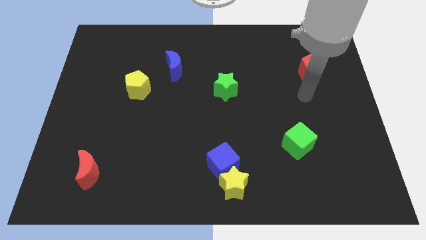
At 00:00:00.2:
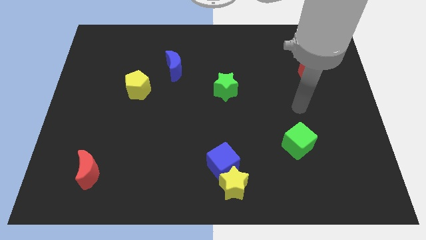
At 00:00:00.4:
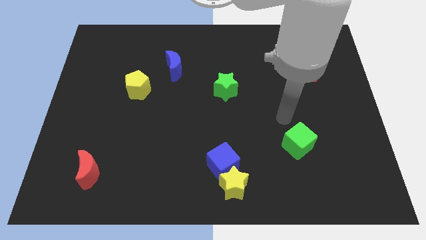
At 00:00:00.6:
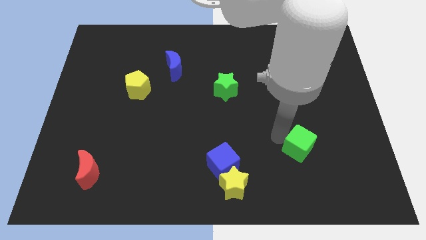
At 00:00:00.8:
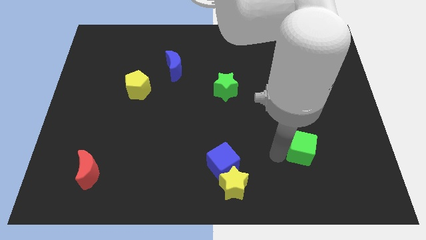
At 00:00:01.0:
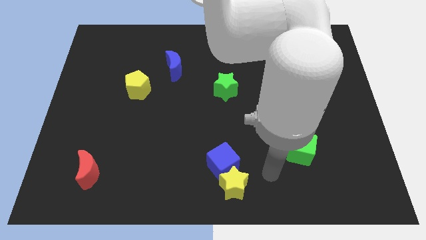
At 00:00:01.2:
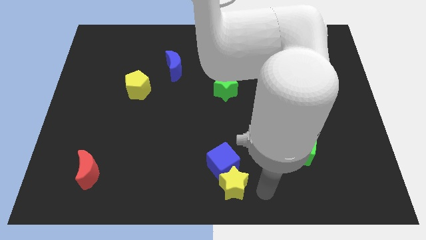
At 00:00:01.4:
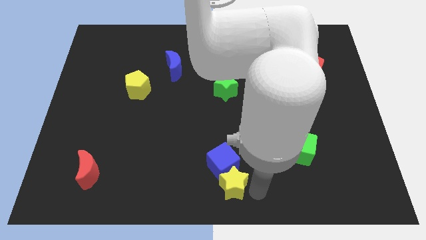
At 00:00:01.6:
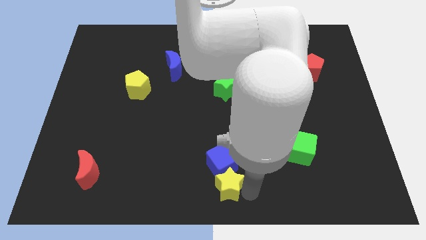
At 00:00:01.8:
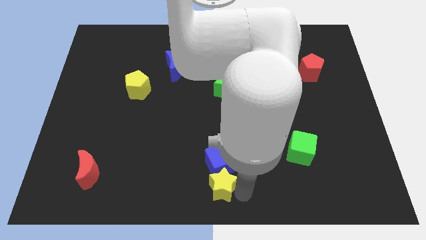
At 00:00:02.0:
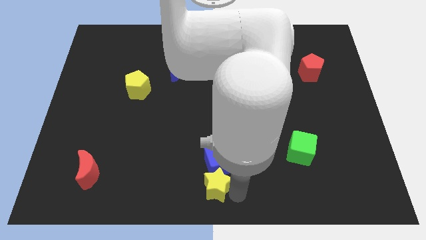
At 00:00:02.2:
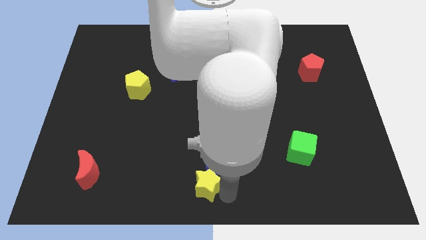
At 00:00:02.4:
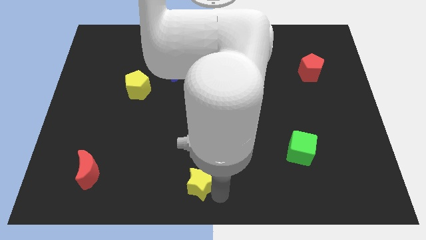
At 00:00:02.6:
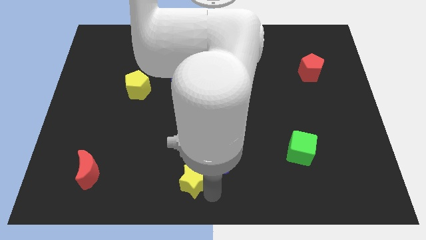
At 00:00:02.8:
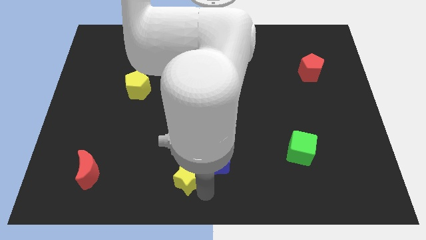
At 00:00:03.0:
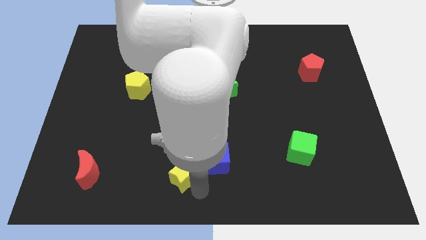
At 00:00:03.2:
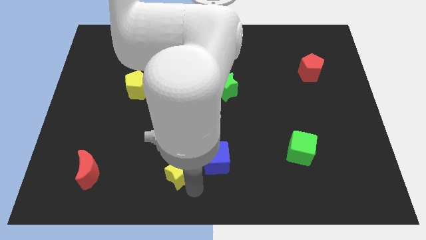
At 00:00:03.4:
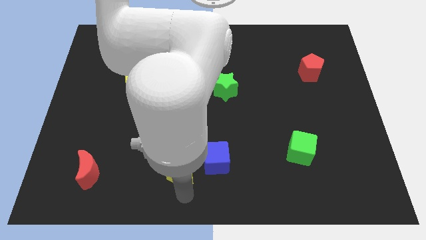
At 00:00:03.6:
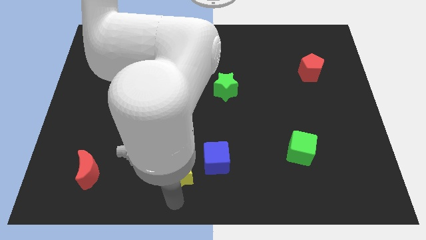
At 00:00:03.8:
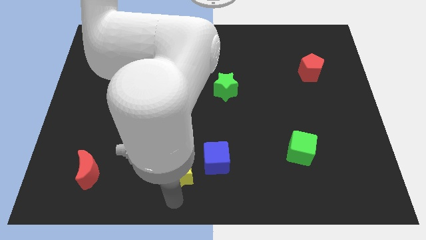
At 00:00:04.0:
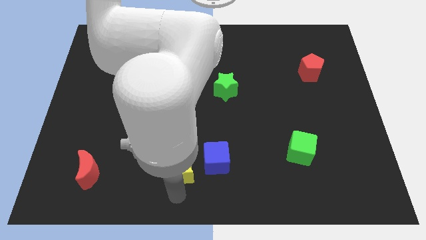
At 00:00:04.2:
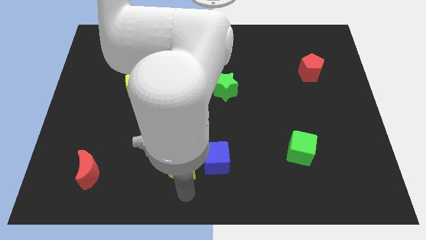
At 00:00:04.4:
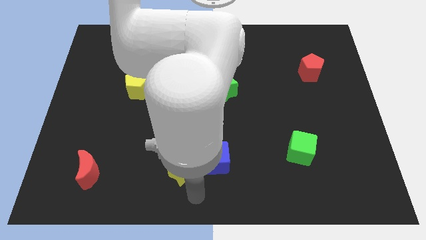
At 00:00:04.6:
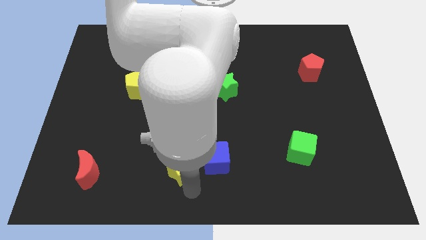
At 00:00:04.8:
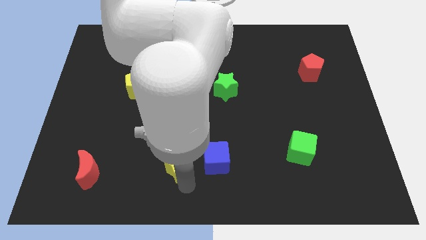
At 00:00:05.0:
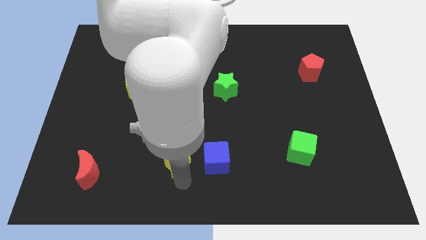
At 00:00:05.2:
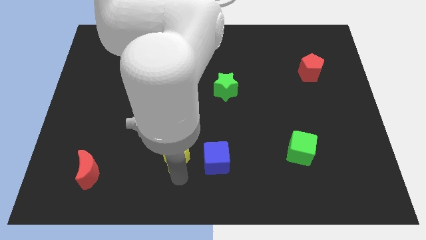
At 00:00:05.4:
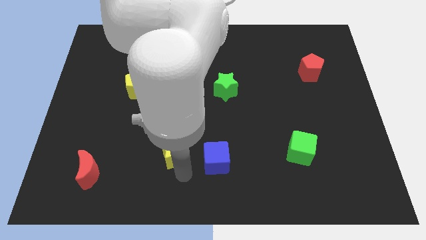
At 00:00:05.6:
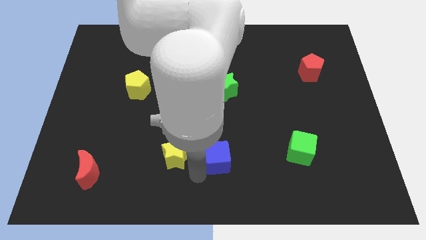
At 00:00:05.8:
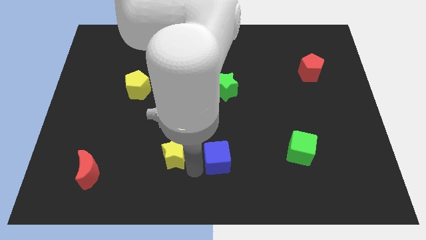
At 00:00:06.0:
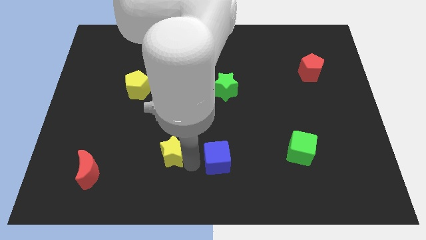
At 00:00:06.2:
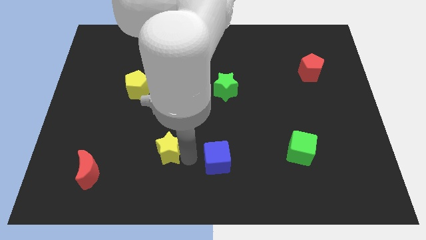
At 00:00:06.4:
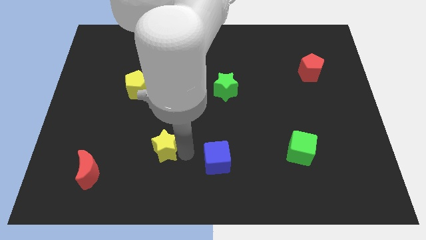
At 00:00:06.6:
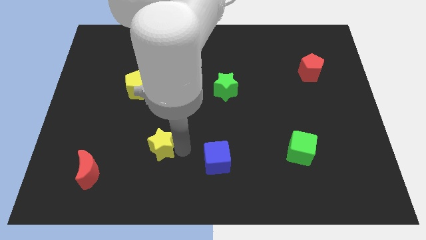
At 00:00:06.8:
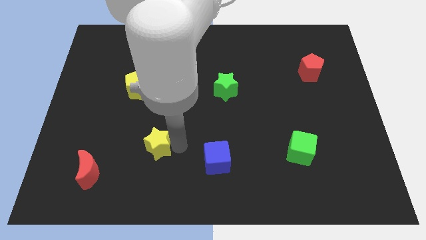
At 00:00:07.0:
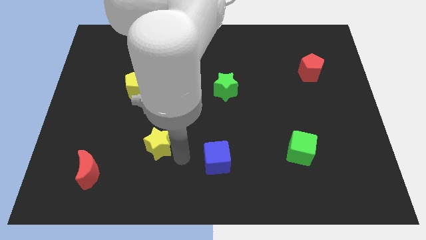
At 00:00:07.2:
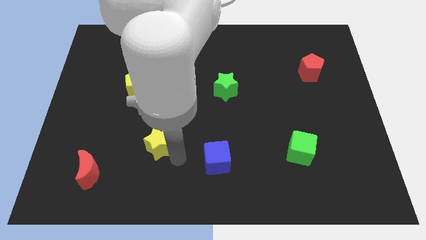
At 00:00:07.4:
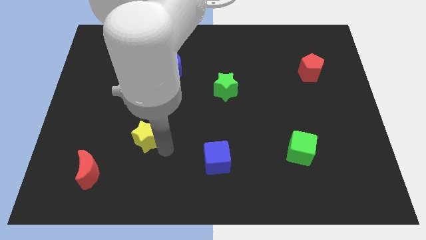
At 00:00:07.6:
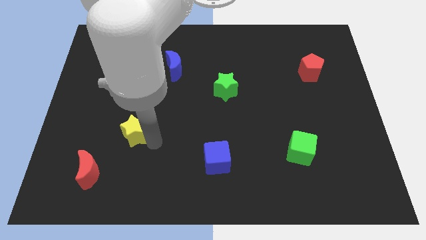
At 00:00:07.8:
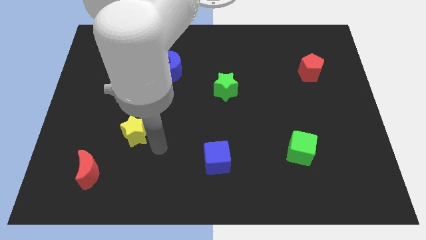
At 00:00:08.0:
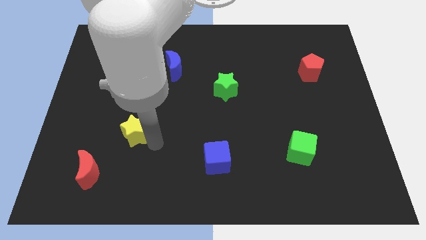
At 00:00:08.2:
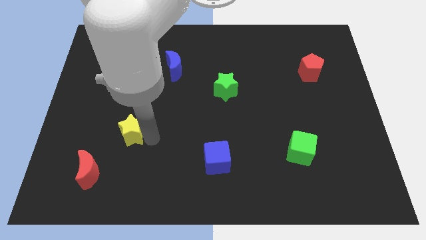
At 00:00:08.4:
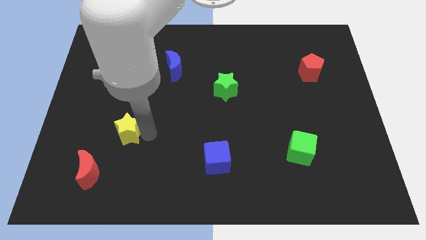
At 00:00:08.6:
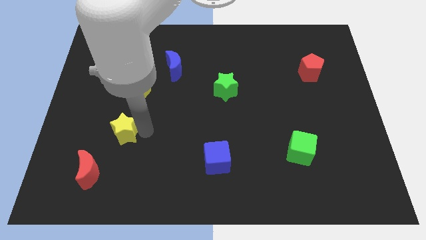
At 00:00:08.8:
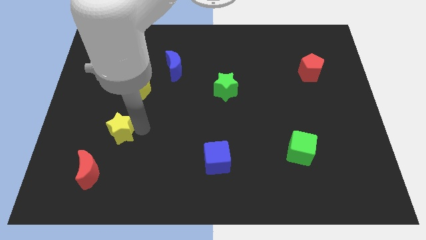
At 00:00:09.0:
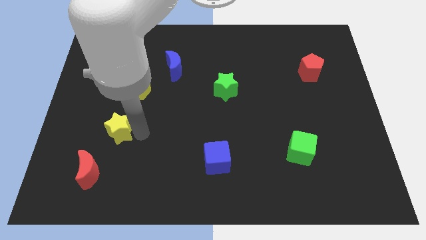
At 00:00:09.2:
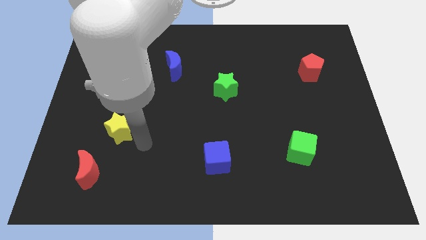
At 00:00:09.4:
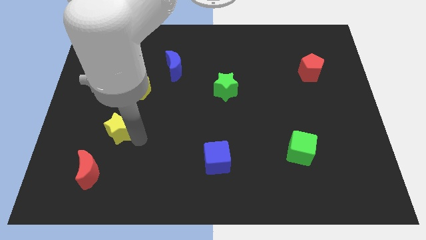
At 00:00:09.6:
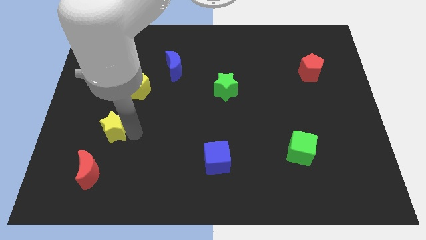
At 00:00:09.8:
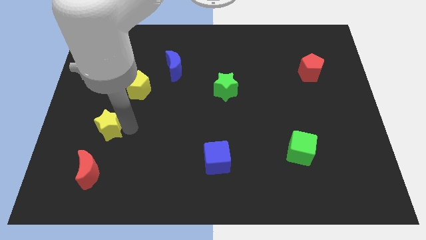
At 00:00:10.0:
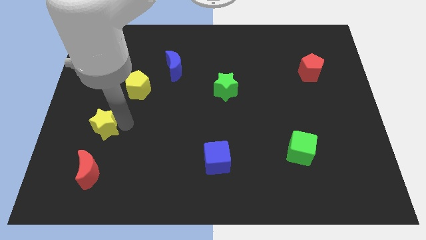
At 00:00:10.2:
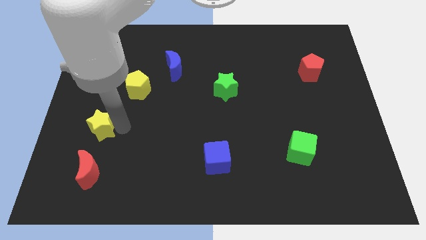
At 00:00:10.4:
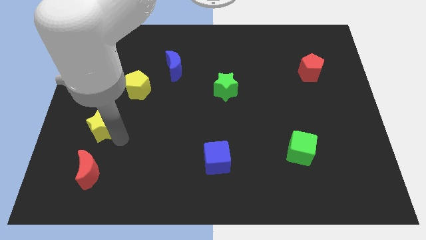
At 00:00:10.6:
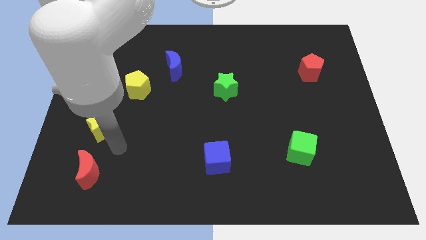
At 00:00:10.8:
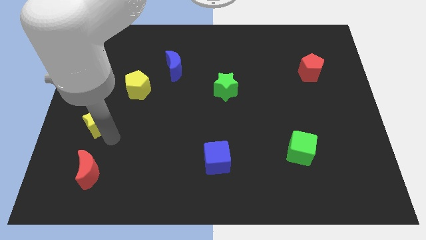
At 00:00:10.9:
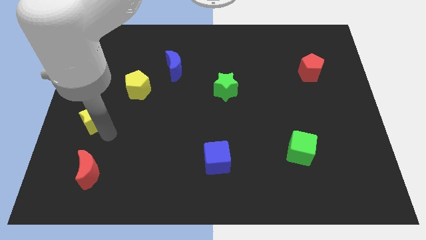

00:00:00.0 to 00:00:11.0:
slide the yellow star to the left side
